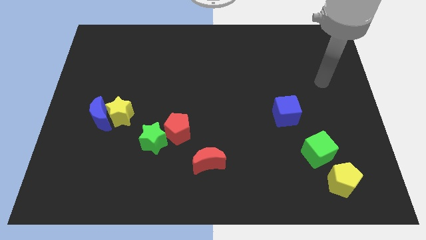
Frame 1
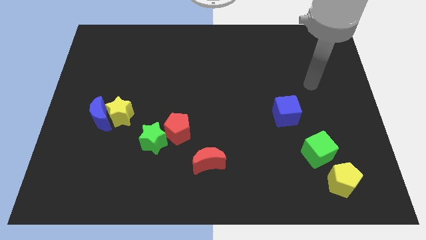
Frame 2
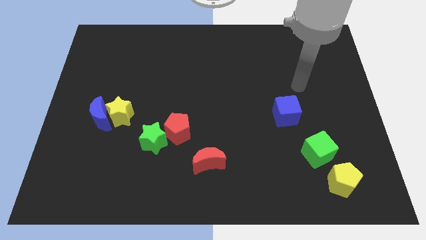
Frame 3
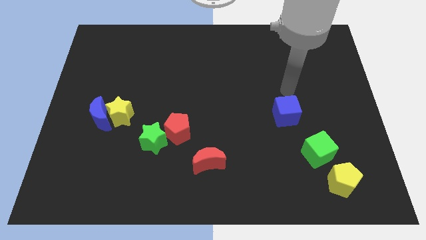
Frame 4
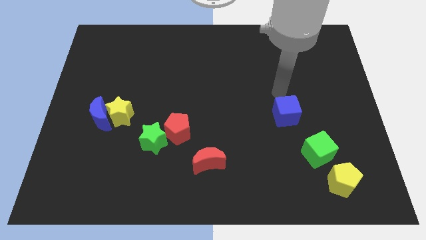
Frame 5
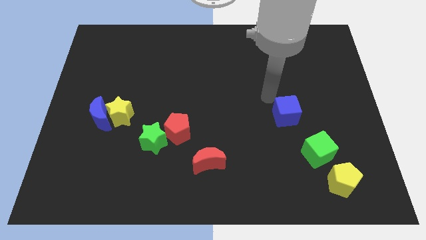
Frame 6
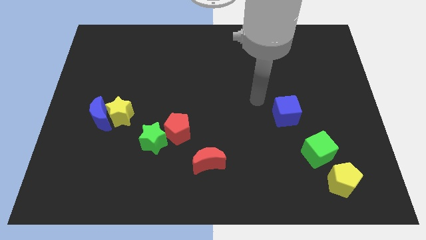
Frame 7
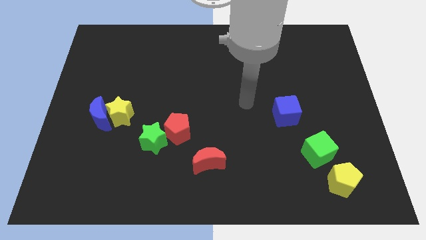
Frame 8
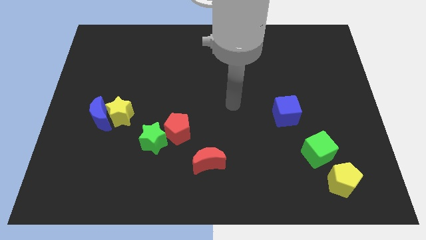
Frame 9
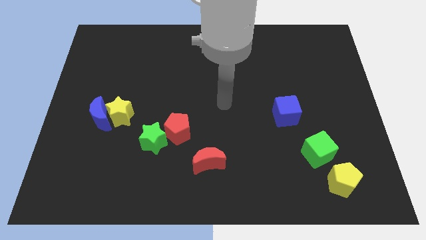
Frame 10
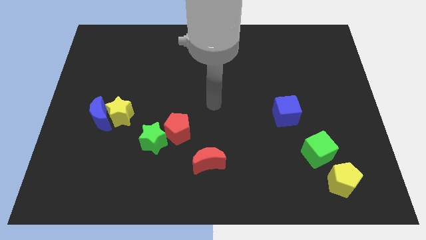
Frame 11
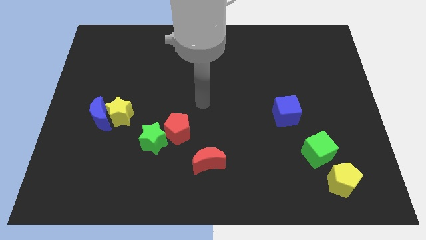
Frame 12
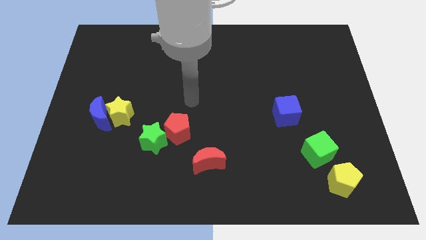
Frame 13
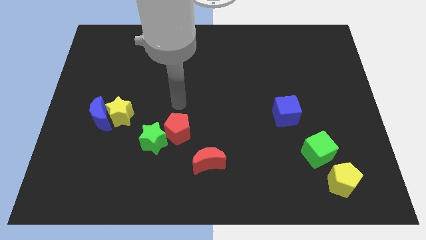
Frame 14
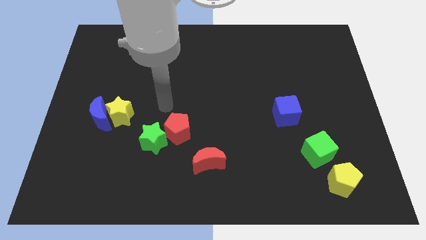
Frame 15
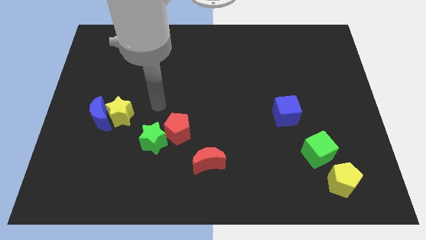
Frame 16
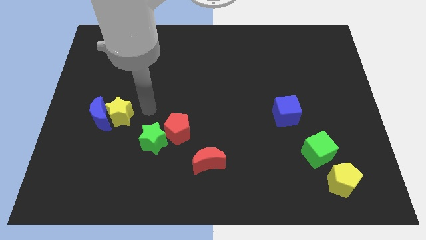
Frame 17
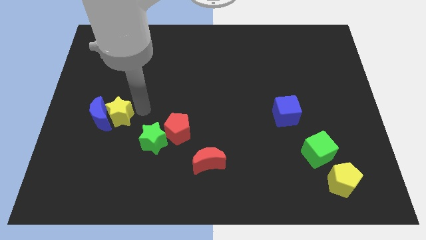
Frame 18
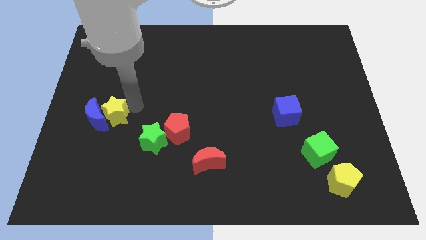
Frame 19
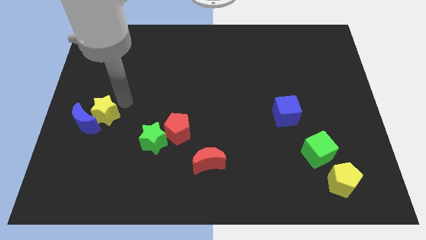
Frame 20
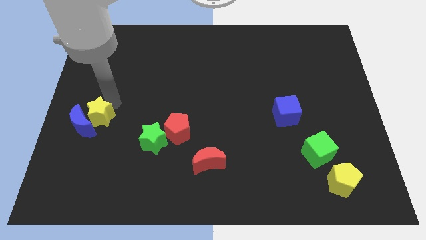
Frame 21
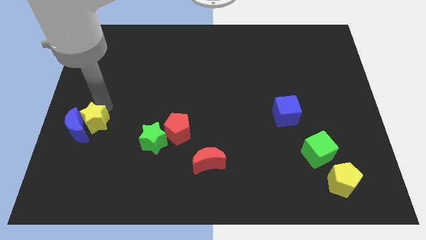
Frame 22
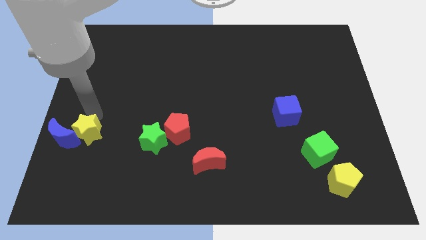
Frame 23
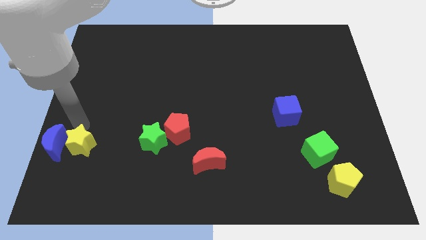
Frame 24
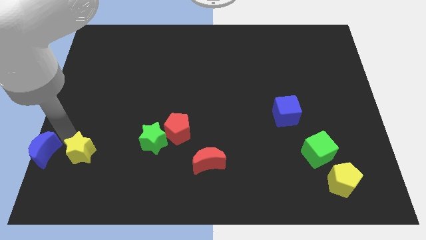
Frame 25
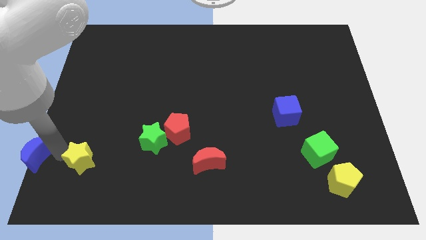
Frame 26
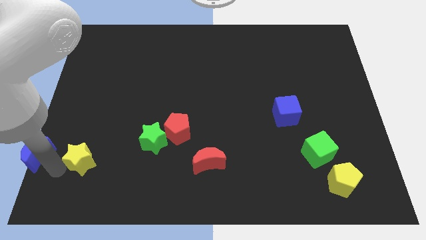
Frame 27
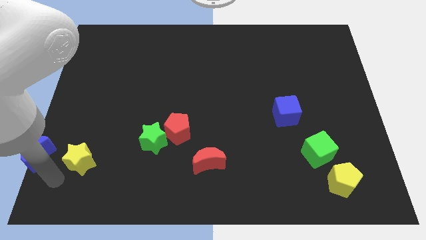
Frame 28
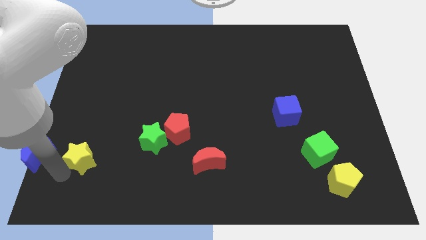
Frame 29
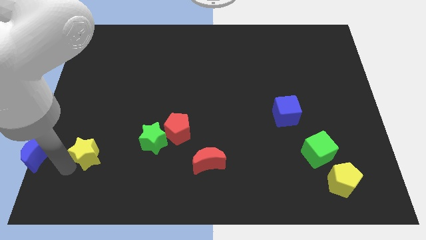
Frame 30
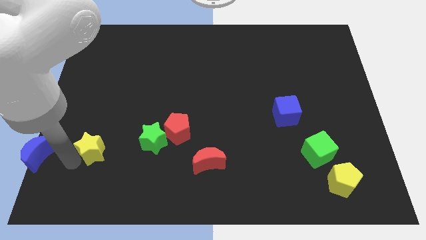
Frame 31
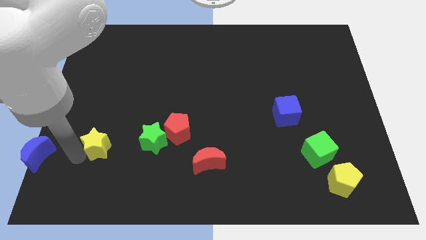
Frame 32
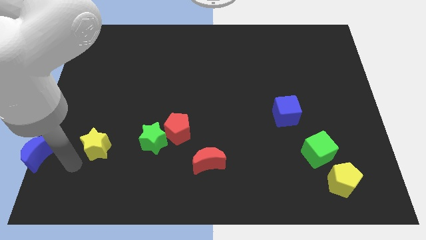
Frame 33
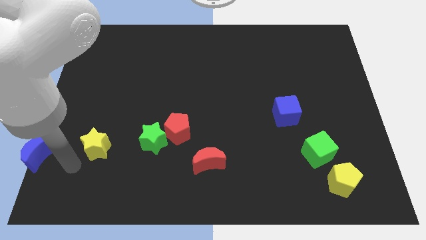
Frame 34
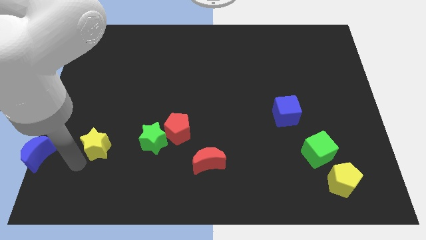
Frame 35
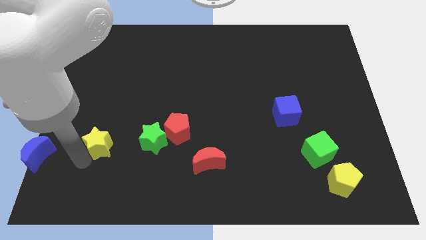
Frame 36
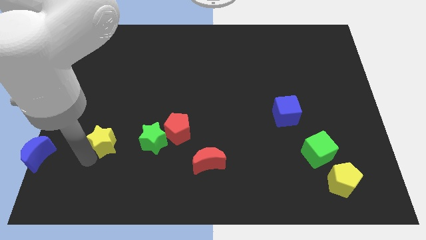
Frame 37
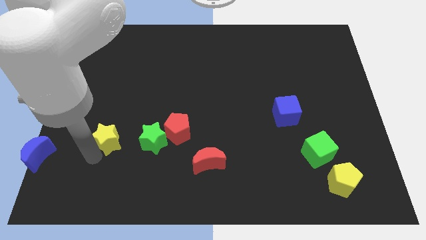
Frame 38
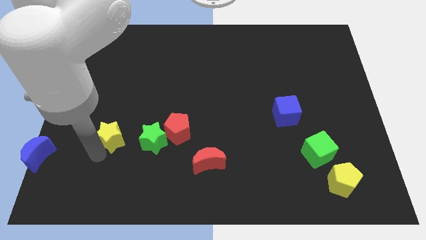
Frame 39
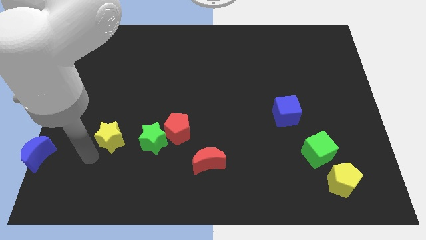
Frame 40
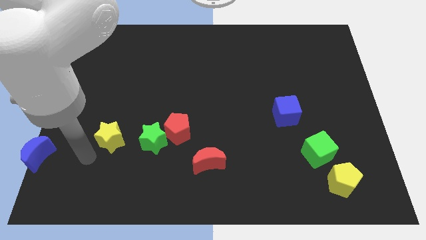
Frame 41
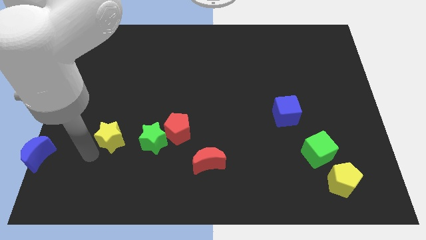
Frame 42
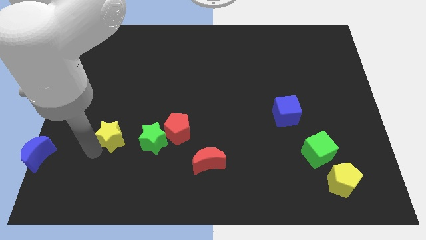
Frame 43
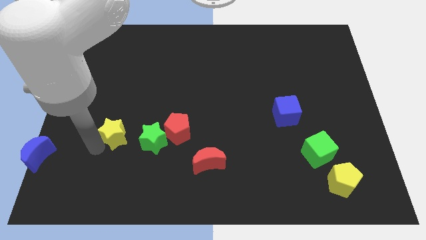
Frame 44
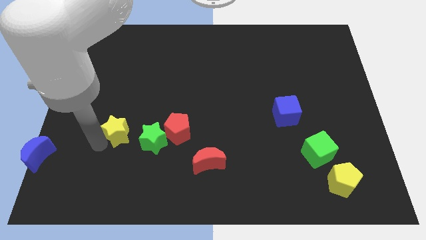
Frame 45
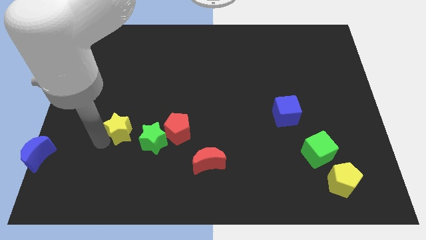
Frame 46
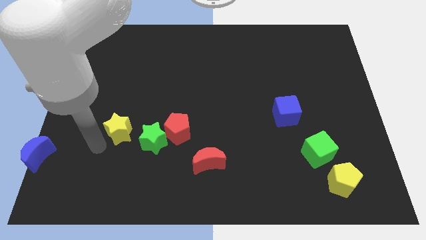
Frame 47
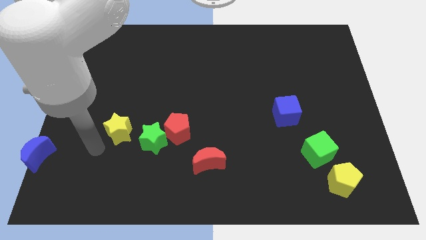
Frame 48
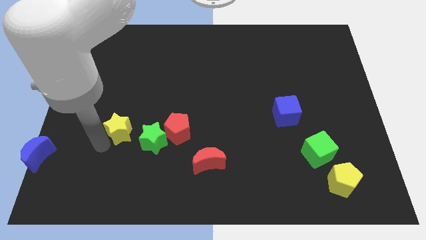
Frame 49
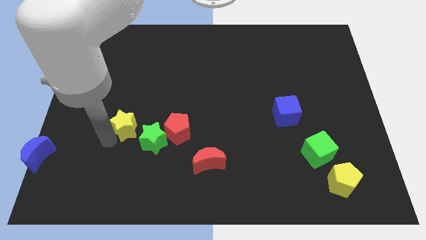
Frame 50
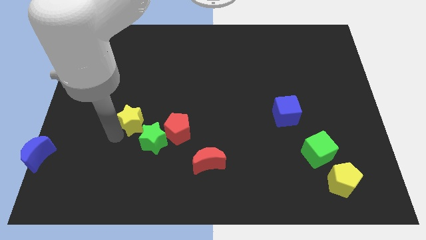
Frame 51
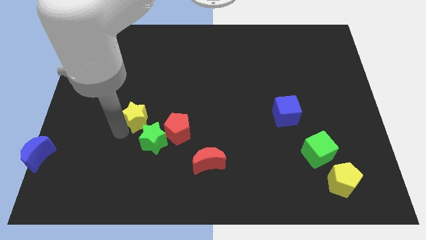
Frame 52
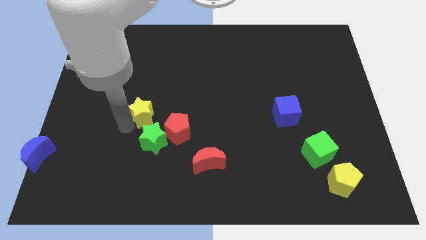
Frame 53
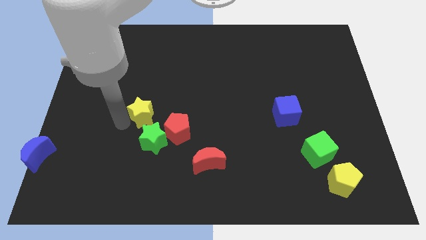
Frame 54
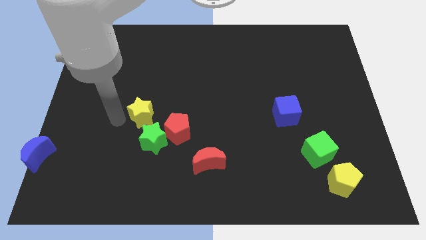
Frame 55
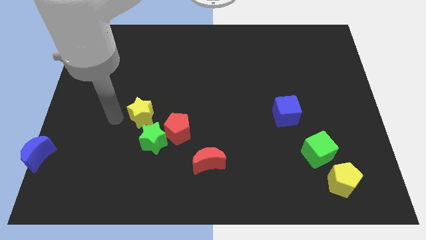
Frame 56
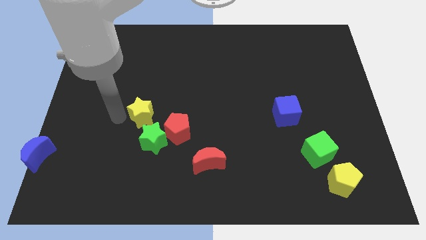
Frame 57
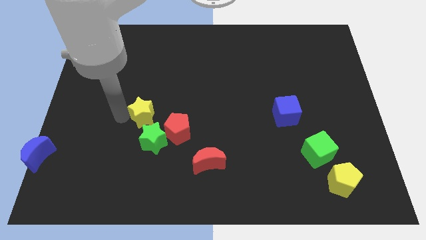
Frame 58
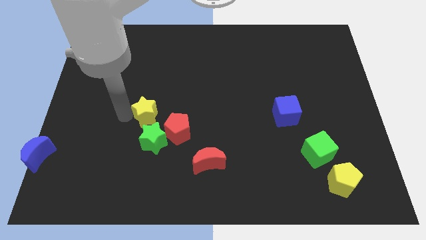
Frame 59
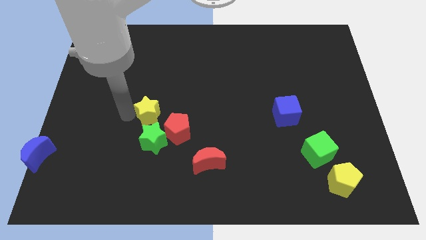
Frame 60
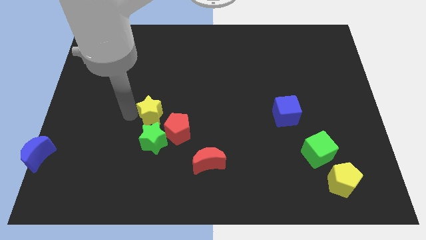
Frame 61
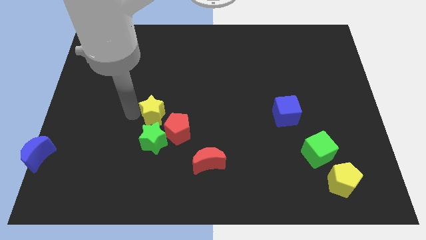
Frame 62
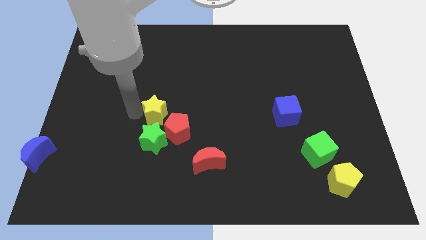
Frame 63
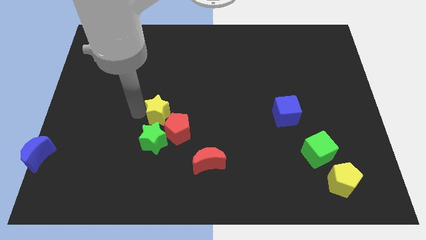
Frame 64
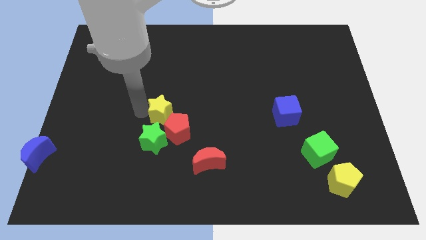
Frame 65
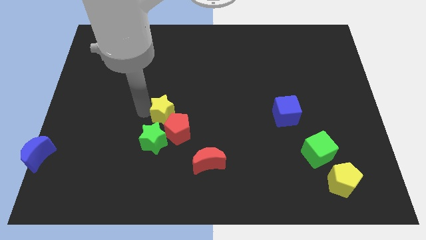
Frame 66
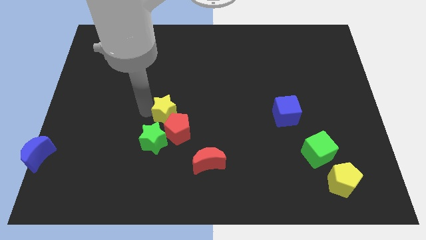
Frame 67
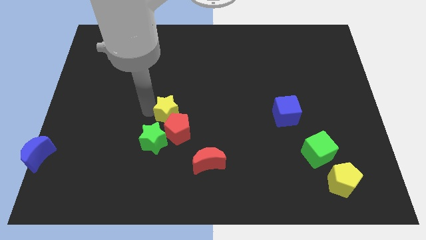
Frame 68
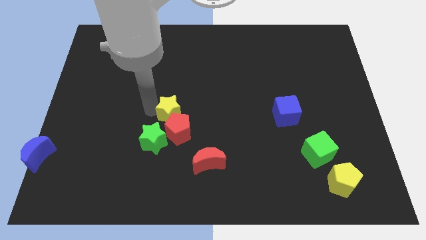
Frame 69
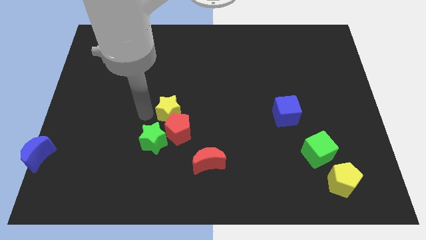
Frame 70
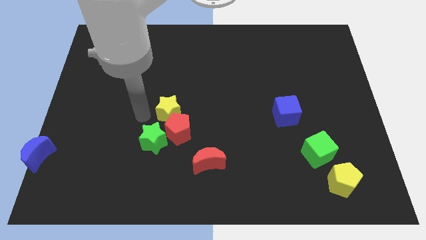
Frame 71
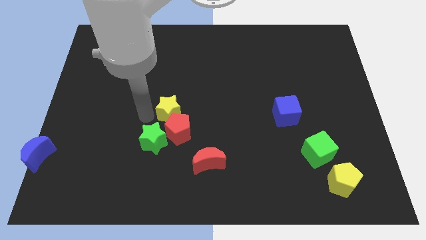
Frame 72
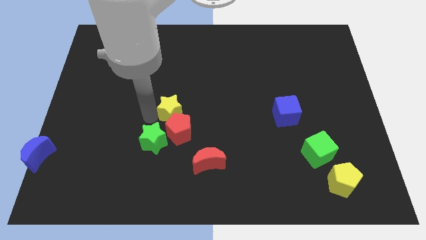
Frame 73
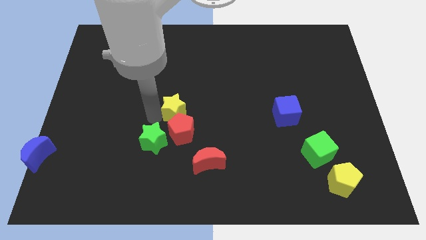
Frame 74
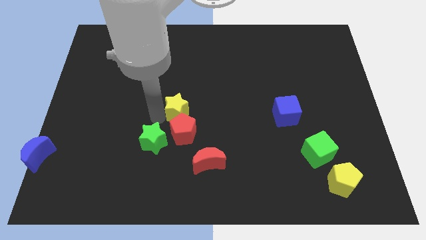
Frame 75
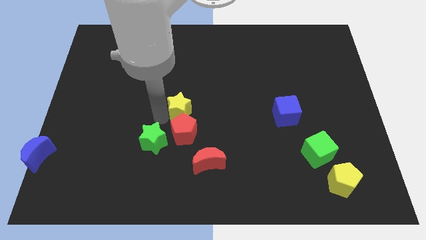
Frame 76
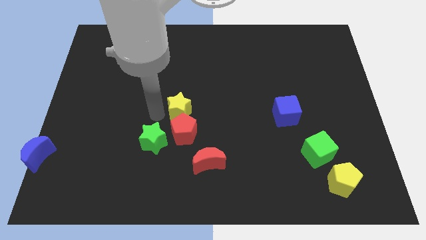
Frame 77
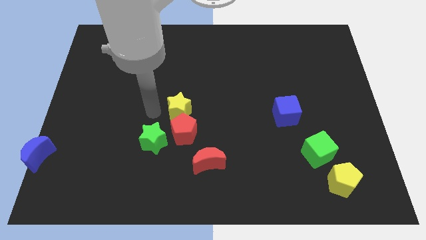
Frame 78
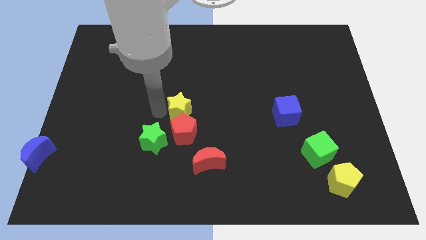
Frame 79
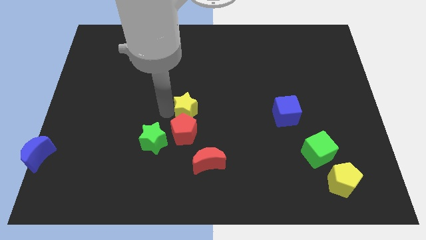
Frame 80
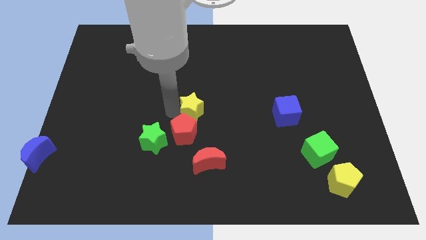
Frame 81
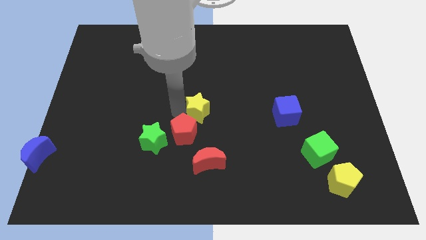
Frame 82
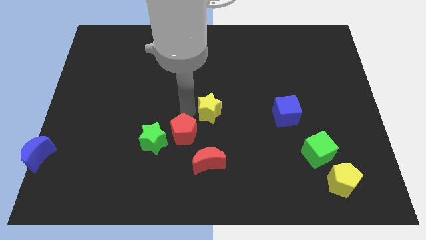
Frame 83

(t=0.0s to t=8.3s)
slide the yellow star to the right
